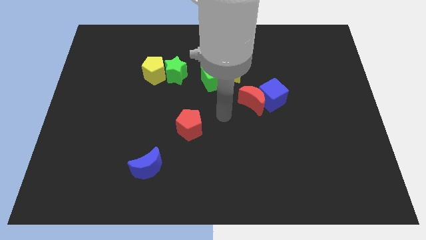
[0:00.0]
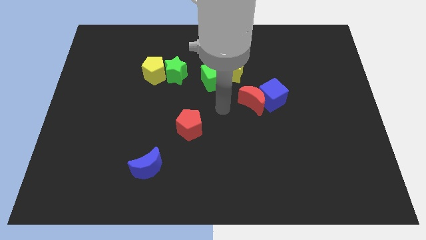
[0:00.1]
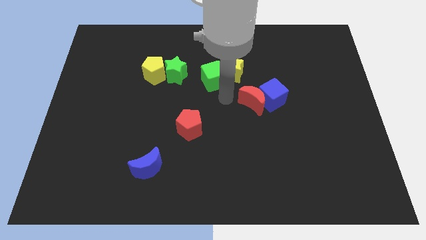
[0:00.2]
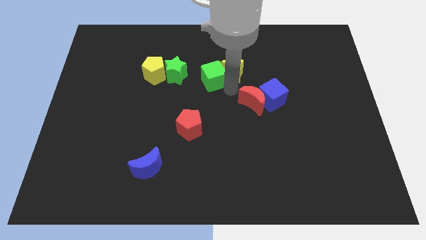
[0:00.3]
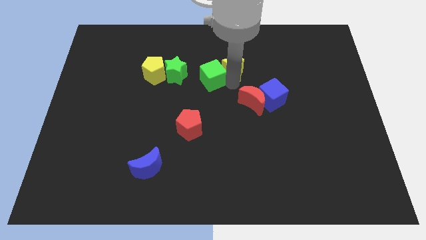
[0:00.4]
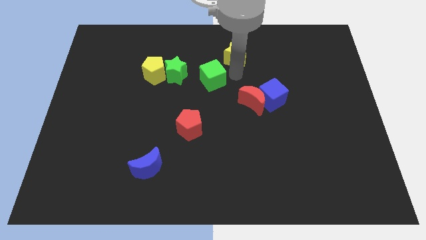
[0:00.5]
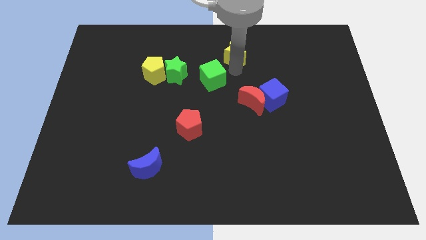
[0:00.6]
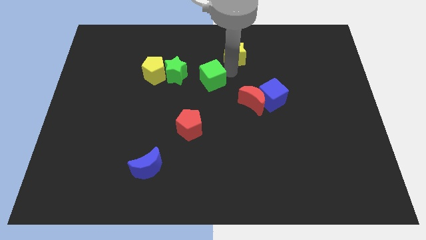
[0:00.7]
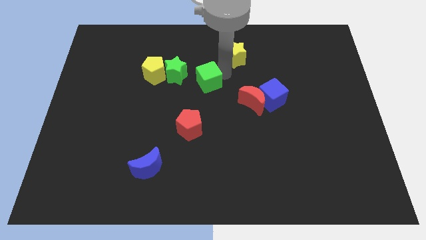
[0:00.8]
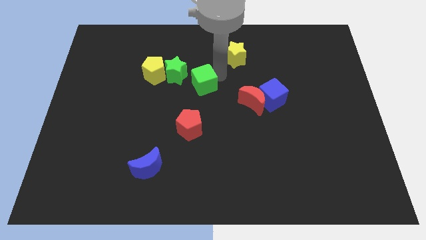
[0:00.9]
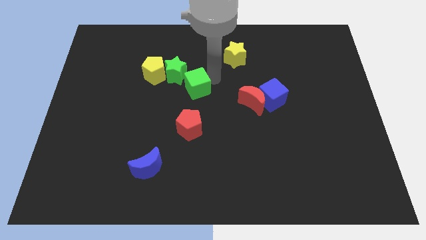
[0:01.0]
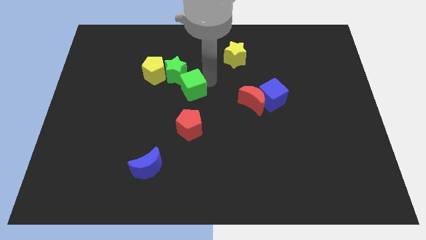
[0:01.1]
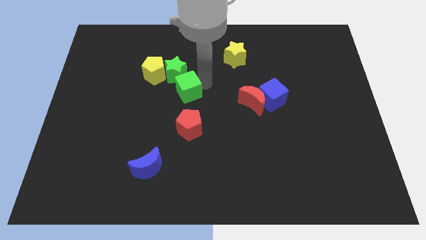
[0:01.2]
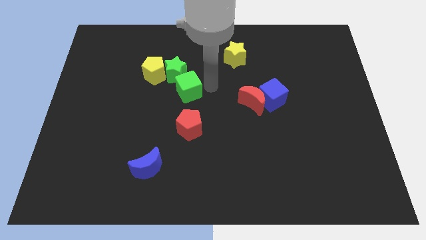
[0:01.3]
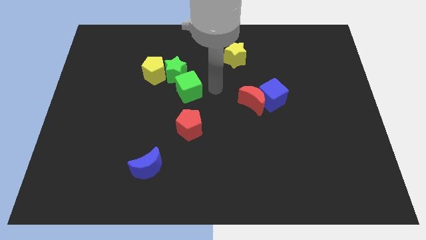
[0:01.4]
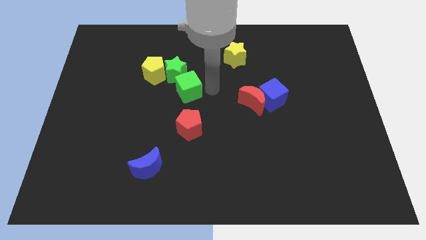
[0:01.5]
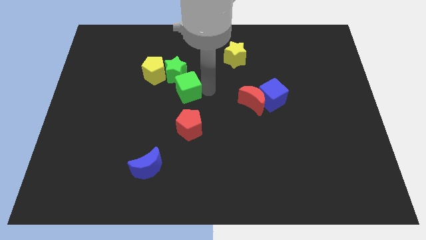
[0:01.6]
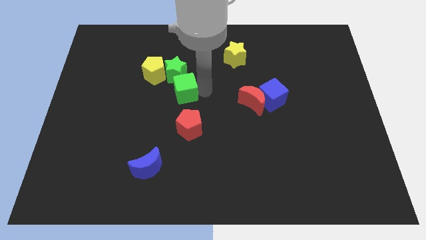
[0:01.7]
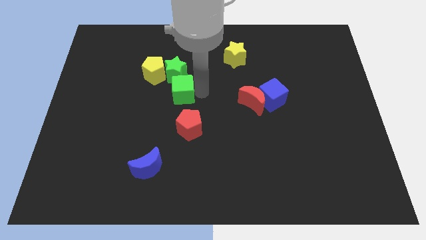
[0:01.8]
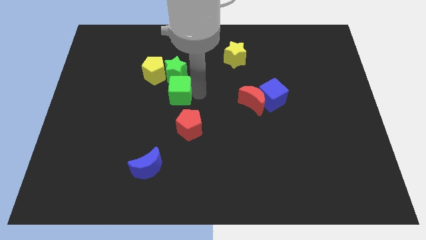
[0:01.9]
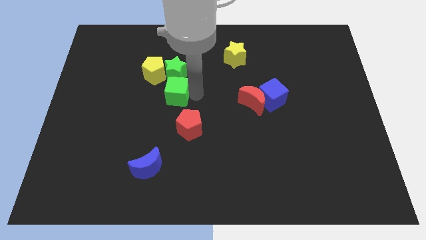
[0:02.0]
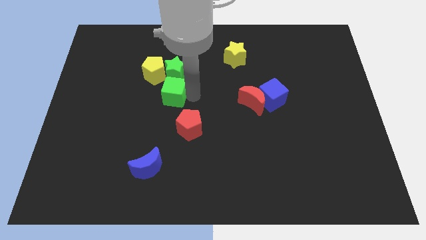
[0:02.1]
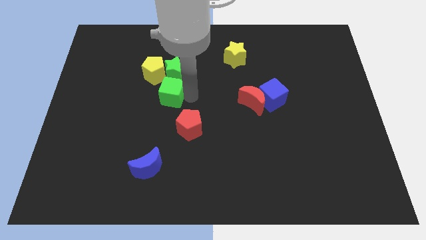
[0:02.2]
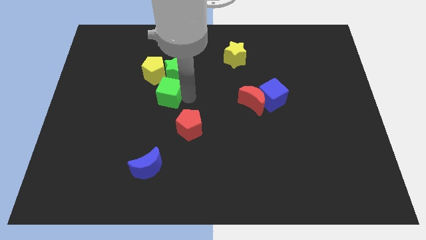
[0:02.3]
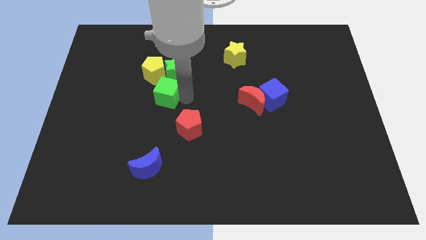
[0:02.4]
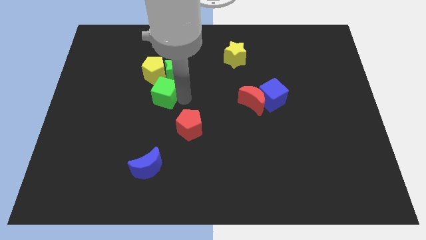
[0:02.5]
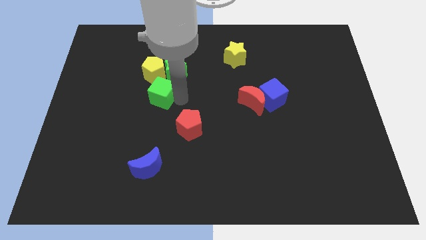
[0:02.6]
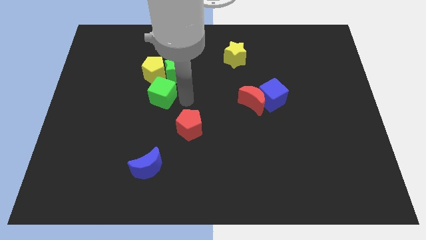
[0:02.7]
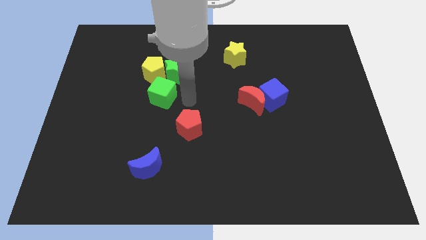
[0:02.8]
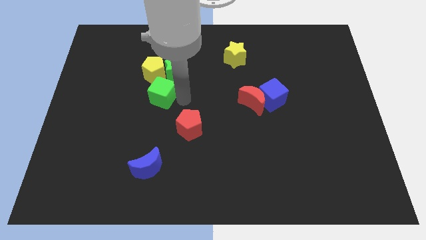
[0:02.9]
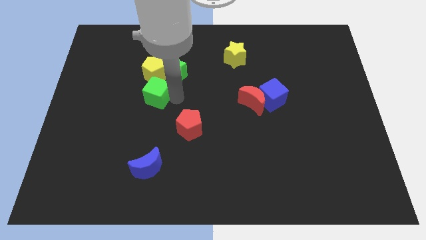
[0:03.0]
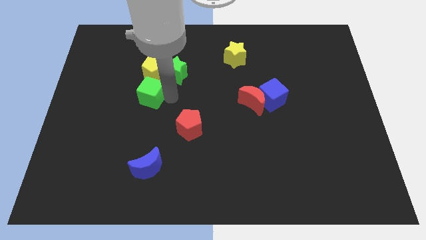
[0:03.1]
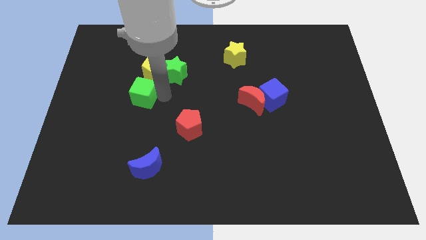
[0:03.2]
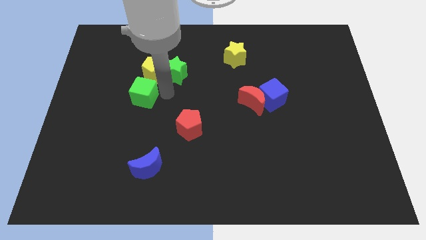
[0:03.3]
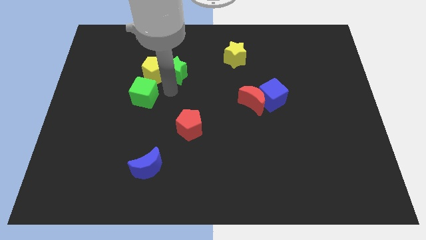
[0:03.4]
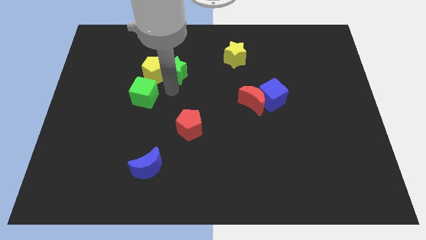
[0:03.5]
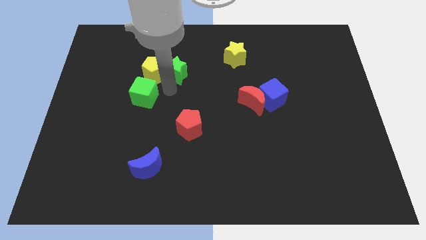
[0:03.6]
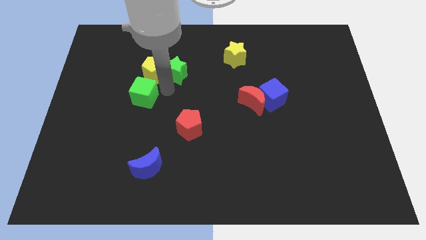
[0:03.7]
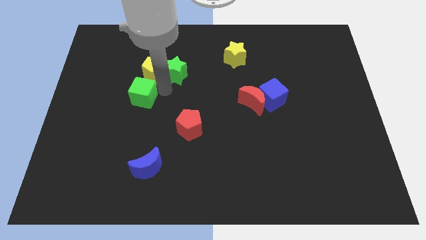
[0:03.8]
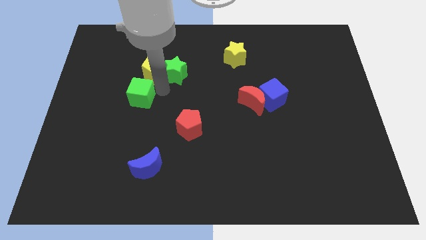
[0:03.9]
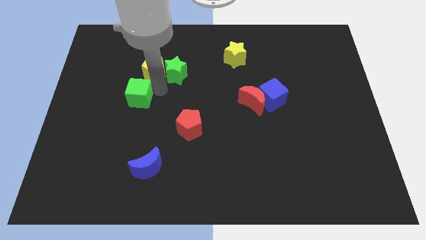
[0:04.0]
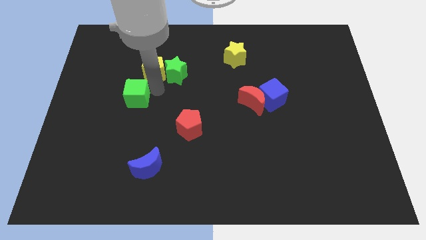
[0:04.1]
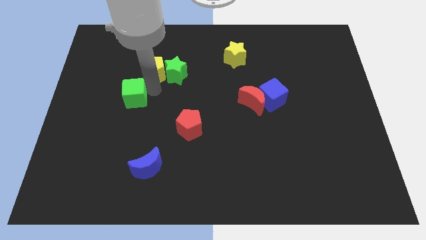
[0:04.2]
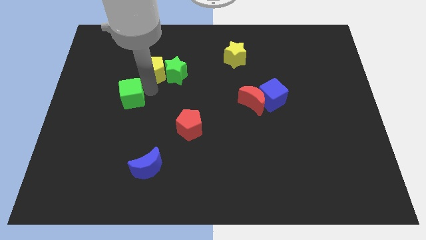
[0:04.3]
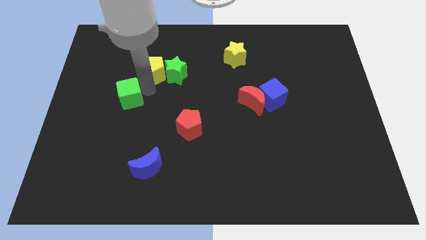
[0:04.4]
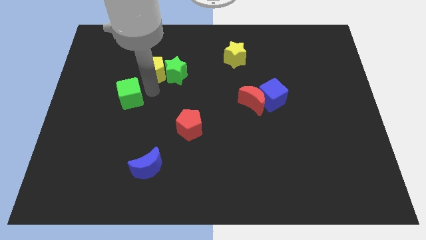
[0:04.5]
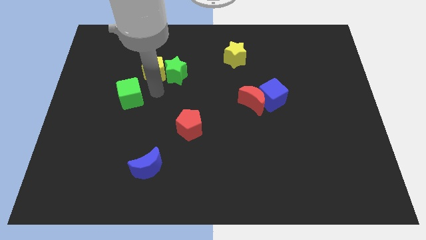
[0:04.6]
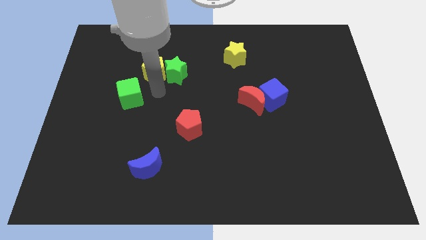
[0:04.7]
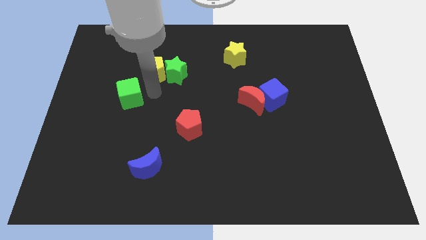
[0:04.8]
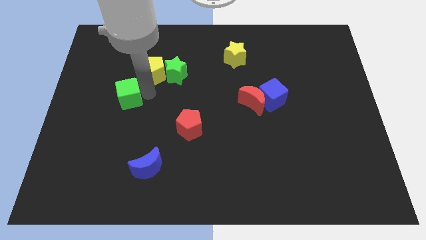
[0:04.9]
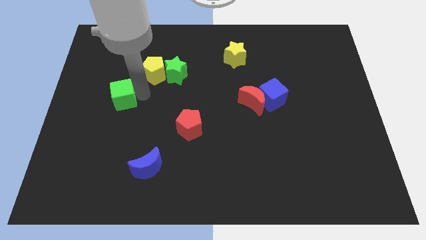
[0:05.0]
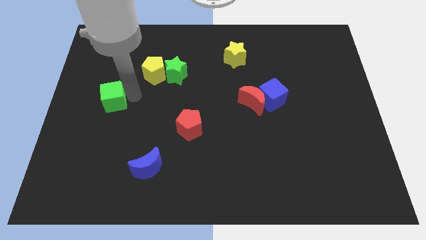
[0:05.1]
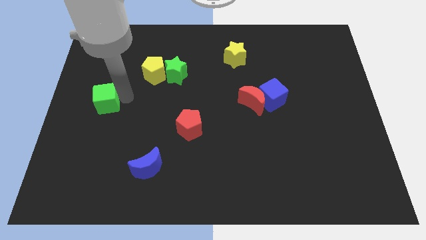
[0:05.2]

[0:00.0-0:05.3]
move the green cube to the left side of the board
